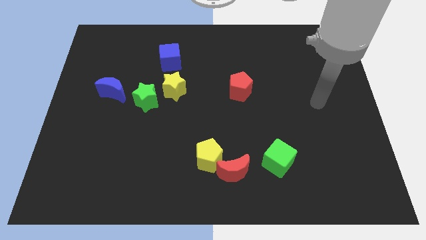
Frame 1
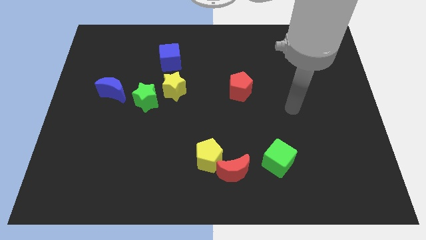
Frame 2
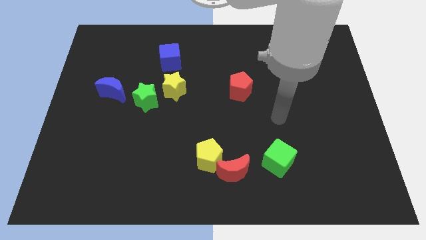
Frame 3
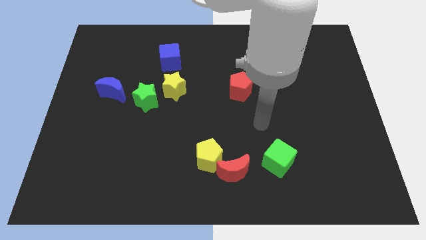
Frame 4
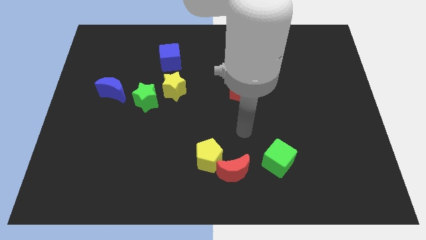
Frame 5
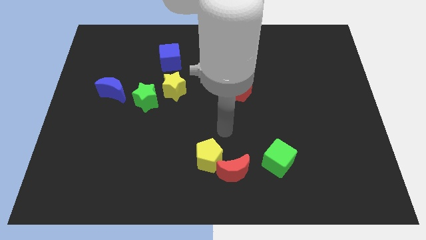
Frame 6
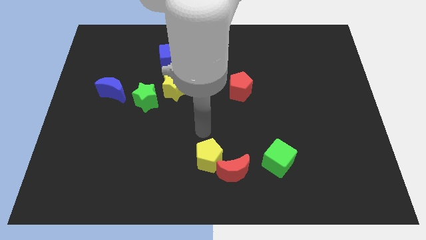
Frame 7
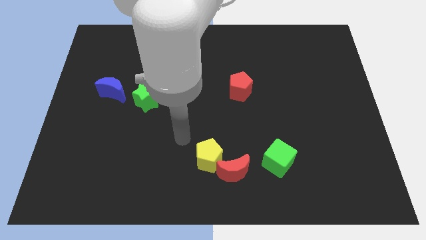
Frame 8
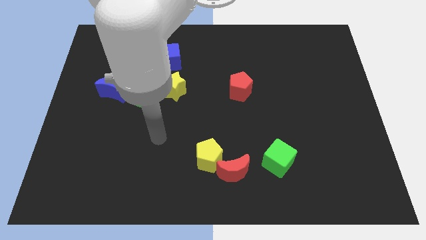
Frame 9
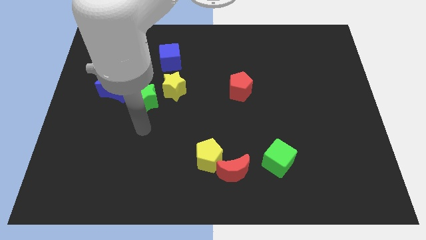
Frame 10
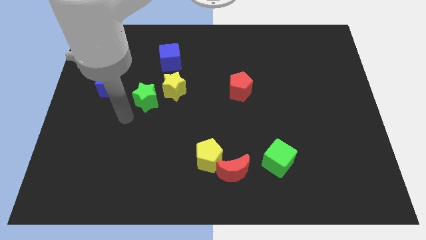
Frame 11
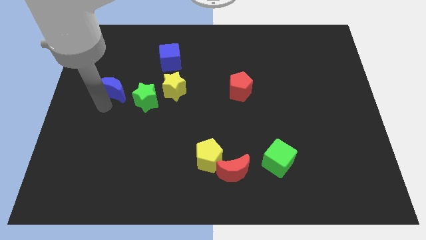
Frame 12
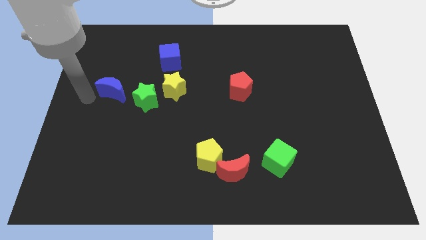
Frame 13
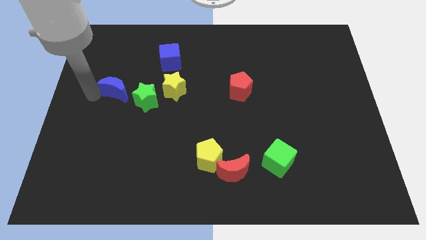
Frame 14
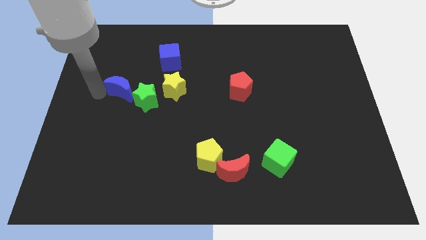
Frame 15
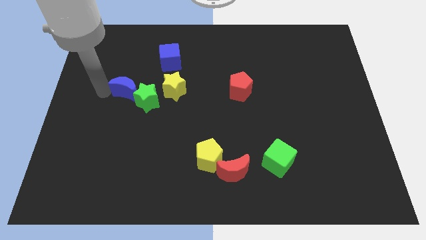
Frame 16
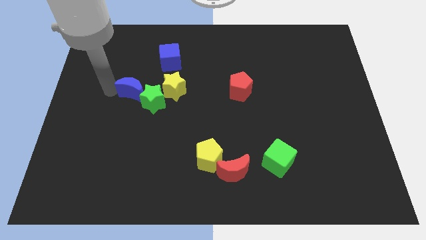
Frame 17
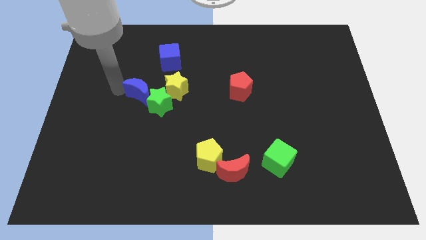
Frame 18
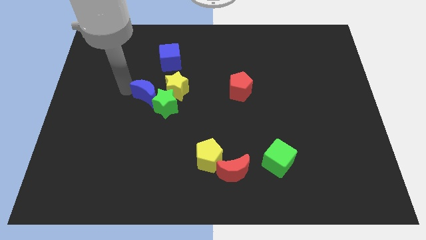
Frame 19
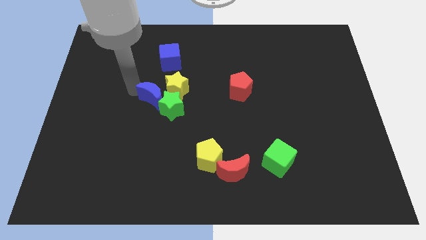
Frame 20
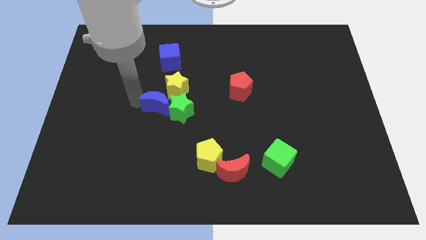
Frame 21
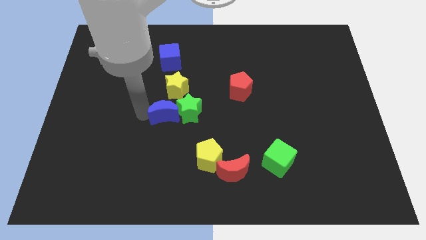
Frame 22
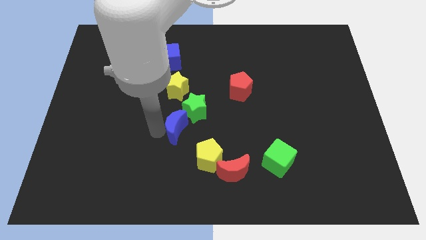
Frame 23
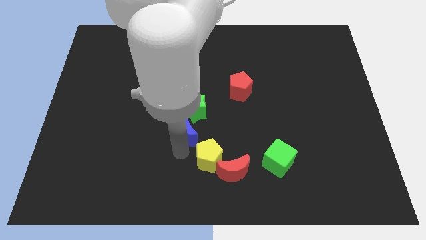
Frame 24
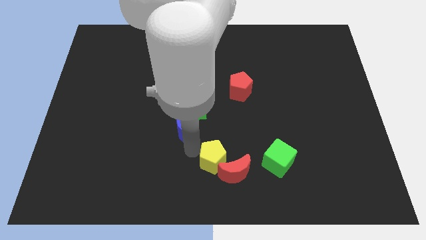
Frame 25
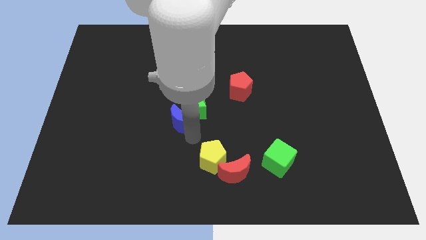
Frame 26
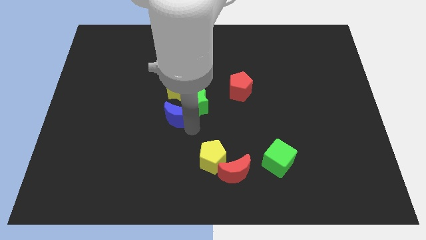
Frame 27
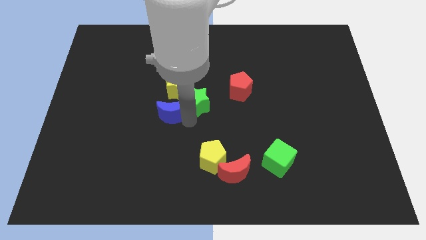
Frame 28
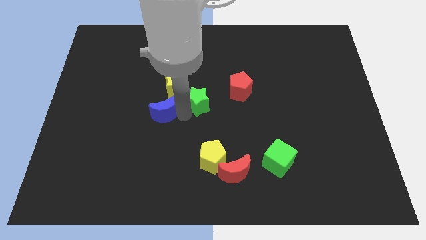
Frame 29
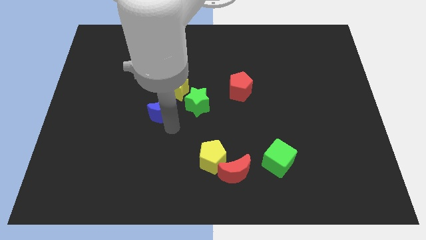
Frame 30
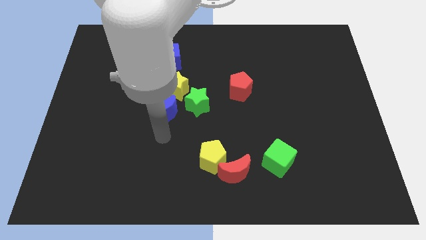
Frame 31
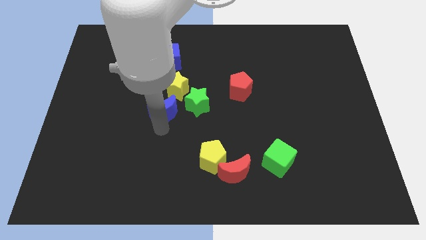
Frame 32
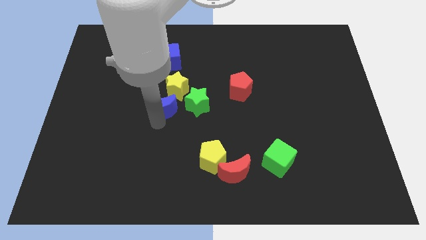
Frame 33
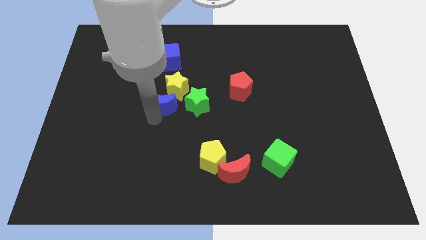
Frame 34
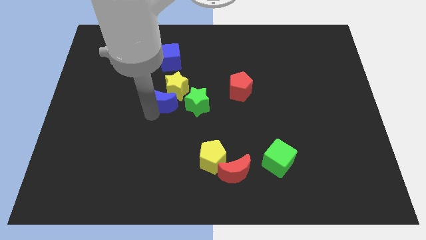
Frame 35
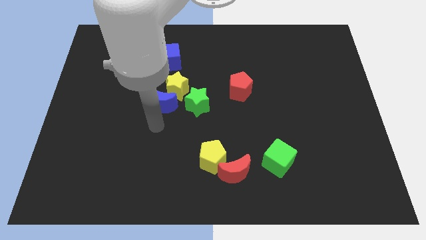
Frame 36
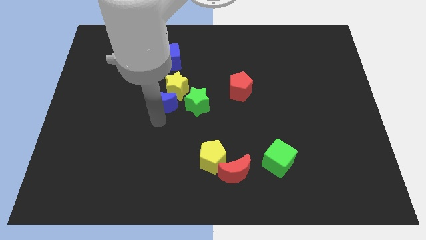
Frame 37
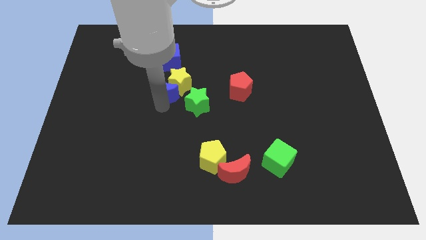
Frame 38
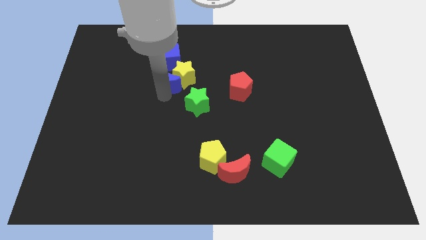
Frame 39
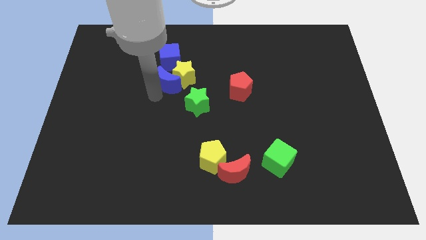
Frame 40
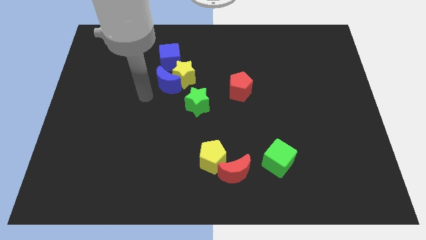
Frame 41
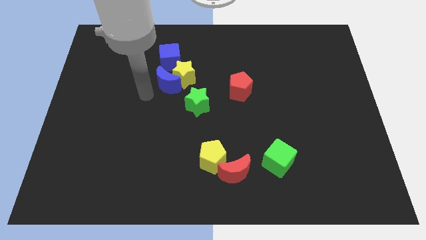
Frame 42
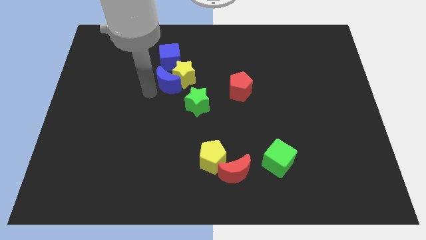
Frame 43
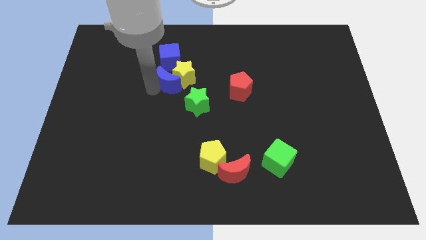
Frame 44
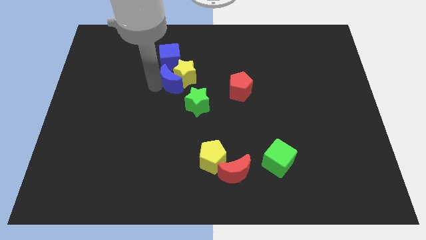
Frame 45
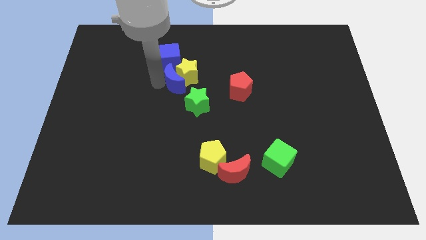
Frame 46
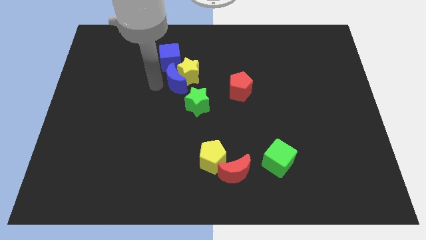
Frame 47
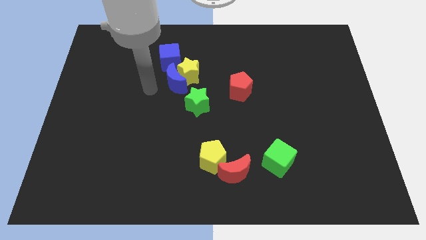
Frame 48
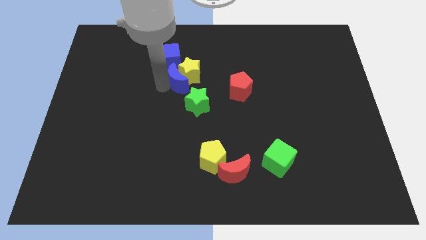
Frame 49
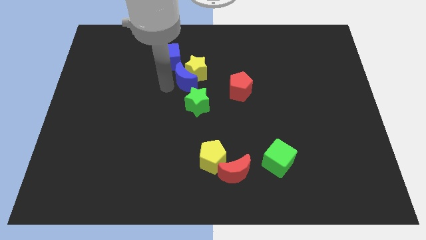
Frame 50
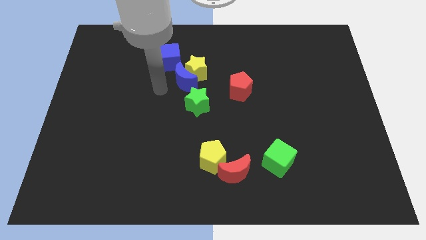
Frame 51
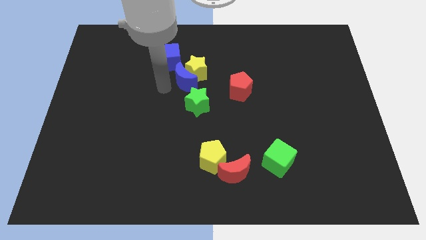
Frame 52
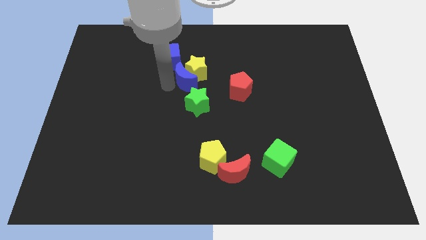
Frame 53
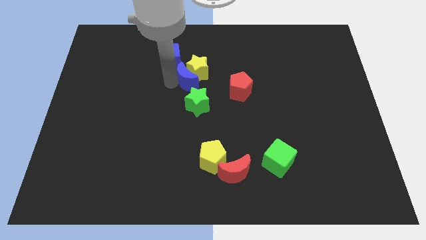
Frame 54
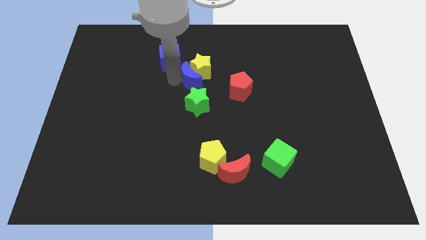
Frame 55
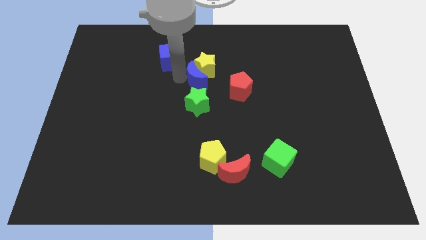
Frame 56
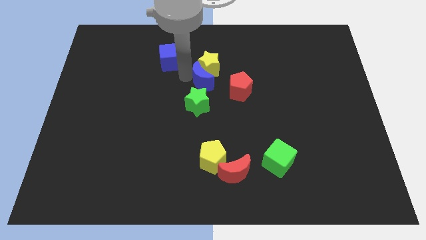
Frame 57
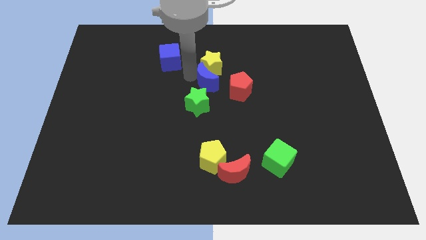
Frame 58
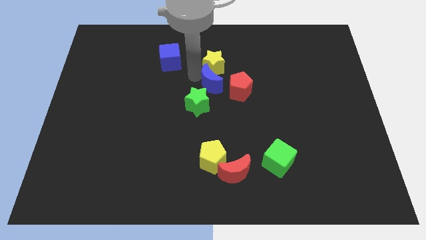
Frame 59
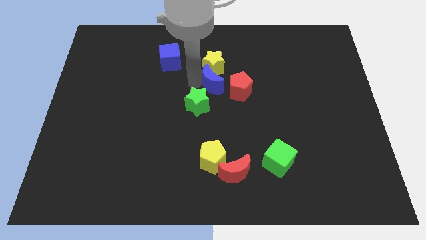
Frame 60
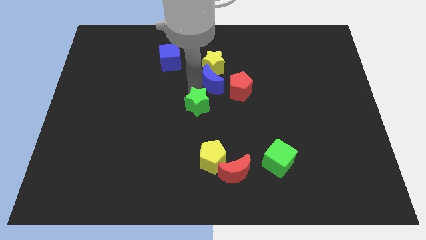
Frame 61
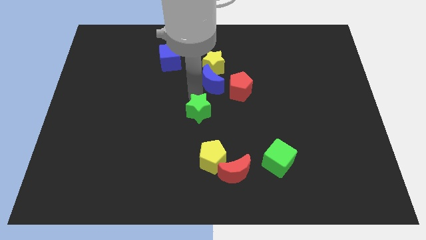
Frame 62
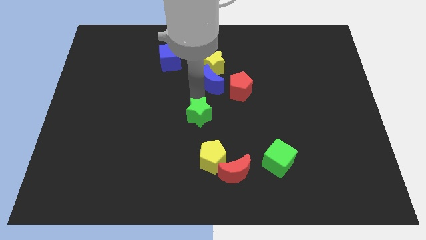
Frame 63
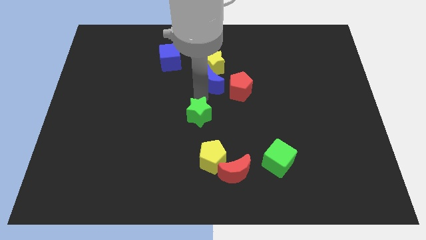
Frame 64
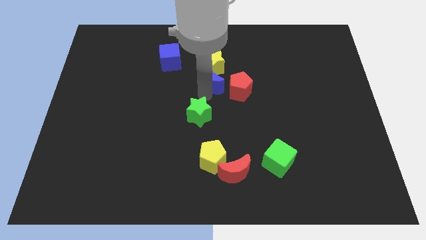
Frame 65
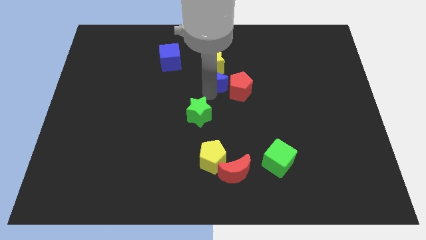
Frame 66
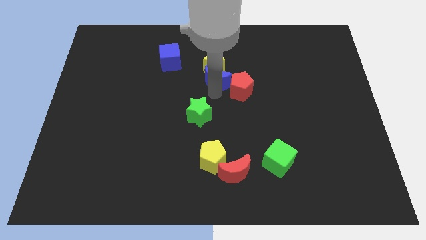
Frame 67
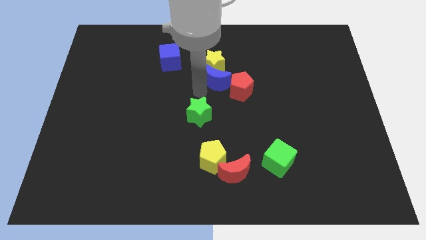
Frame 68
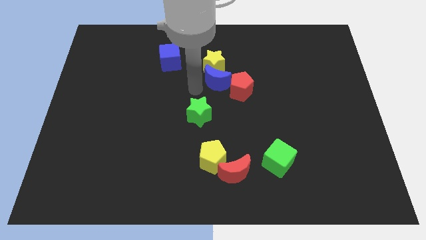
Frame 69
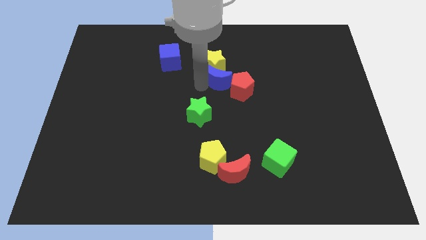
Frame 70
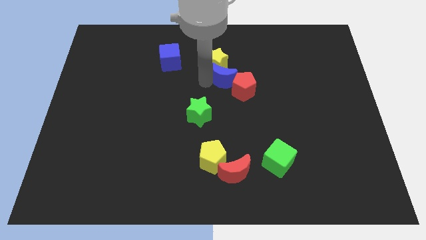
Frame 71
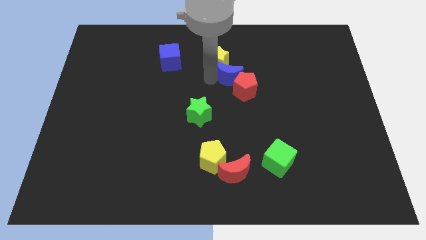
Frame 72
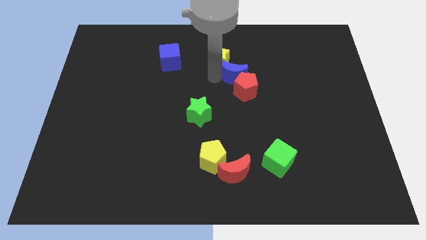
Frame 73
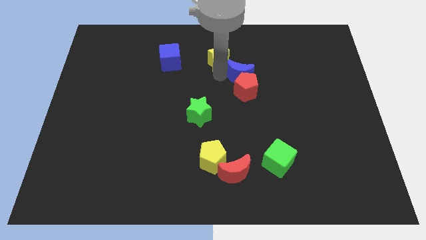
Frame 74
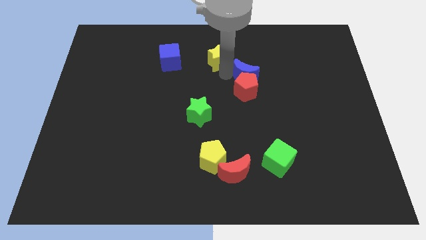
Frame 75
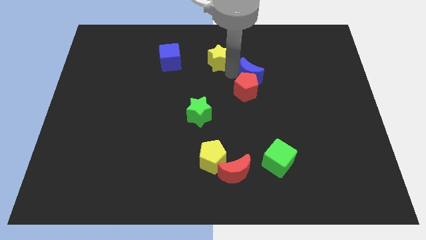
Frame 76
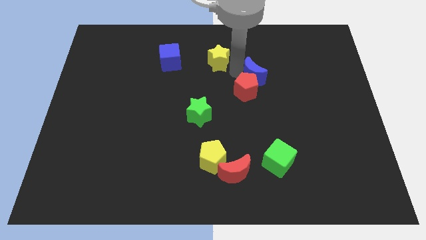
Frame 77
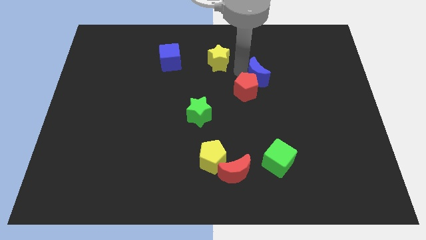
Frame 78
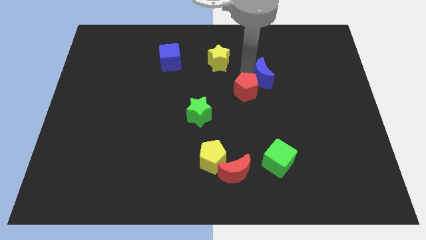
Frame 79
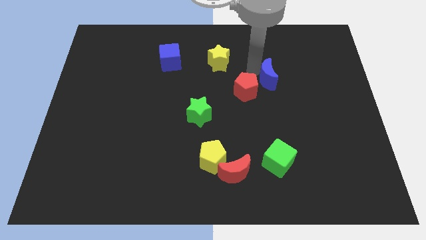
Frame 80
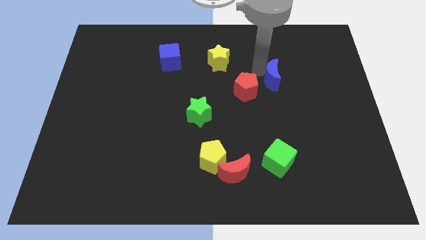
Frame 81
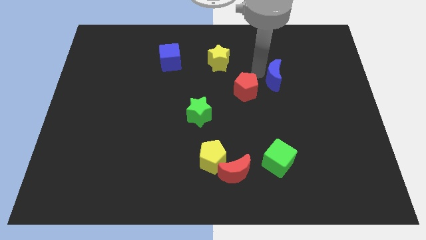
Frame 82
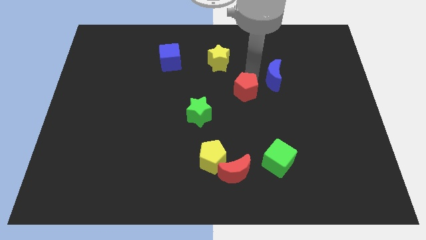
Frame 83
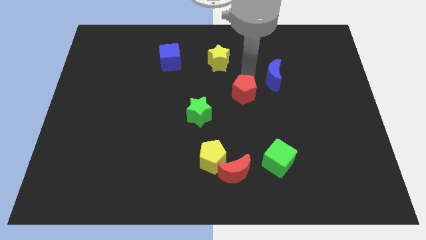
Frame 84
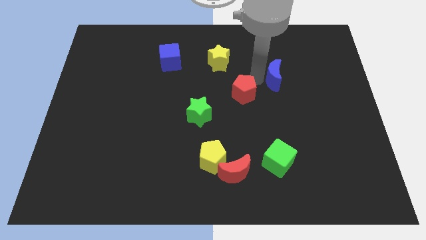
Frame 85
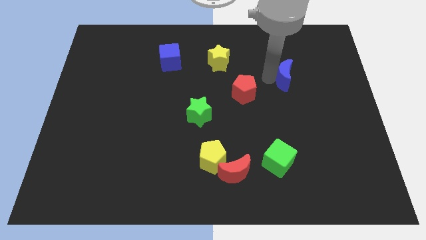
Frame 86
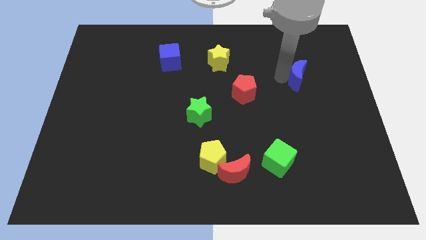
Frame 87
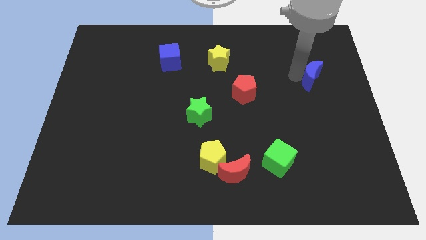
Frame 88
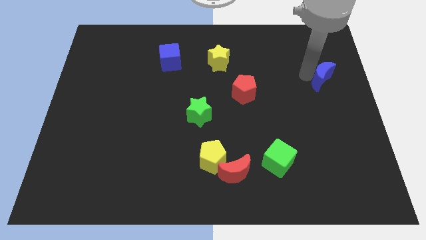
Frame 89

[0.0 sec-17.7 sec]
push the blue moon to the center right
